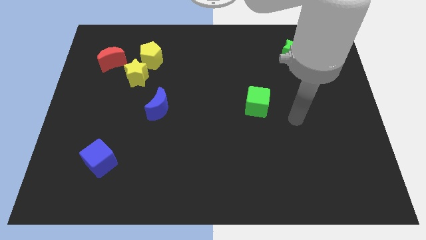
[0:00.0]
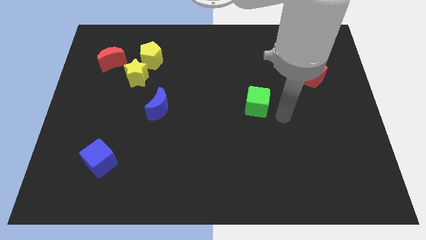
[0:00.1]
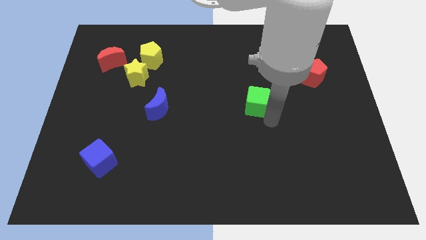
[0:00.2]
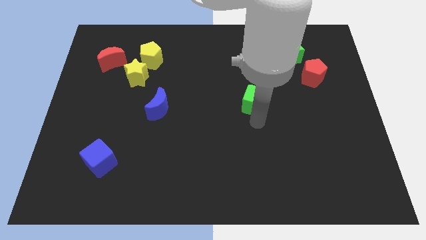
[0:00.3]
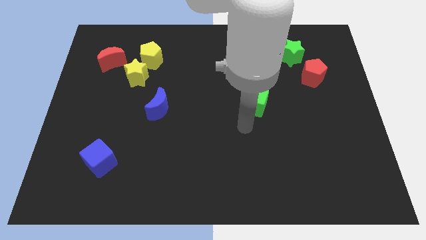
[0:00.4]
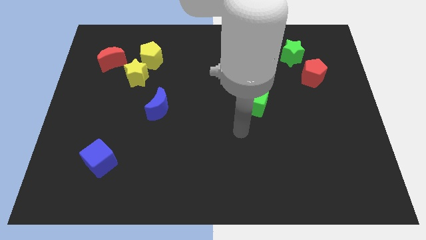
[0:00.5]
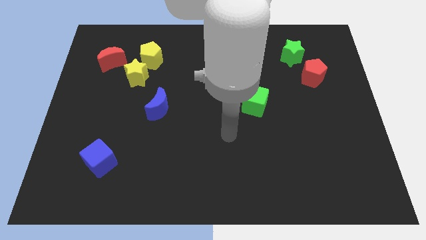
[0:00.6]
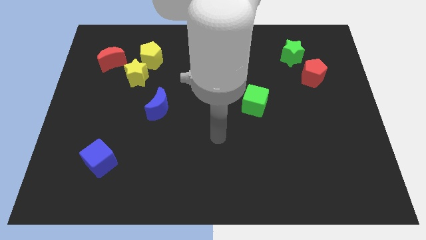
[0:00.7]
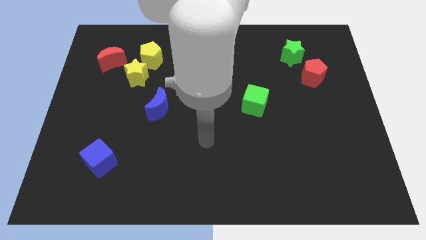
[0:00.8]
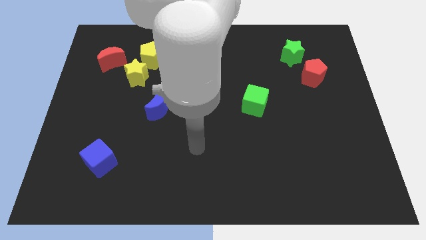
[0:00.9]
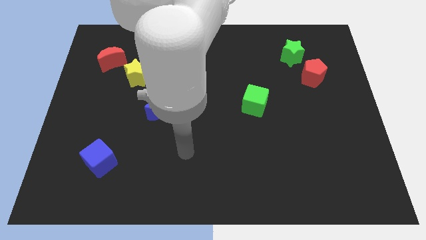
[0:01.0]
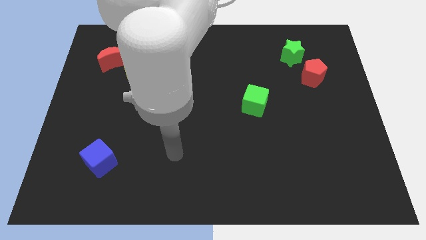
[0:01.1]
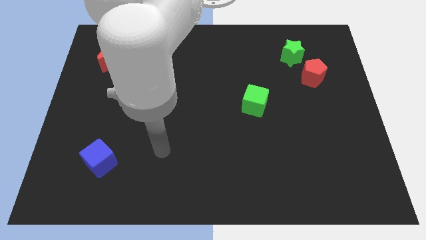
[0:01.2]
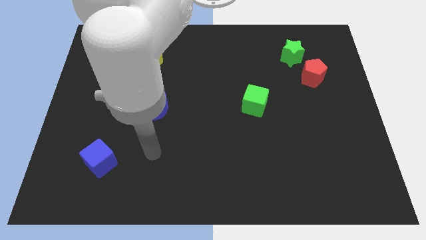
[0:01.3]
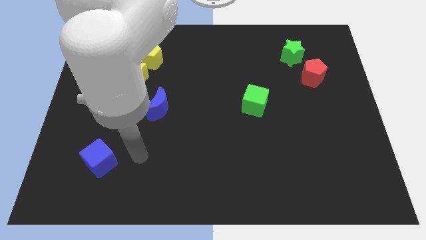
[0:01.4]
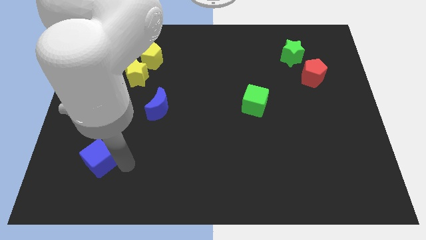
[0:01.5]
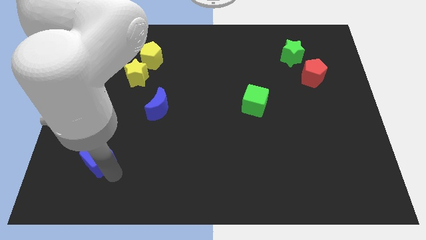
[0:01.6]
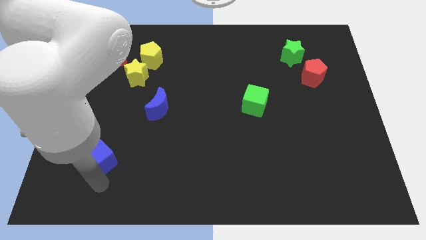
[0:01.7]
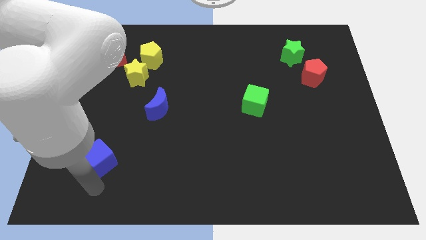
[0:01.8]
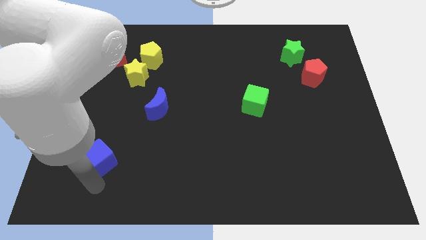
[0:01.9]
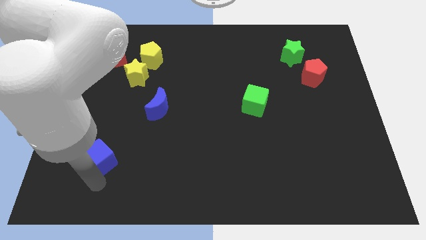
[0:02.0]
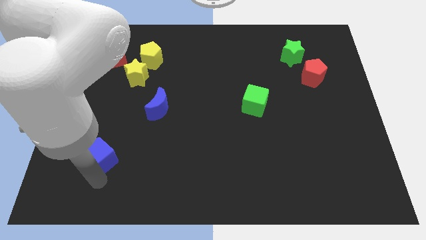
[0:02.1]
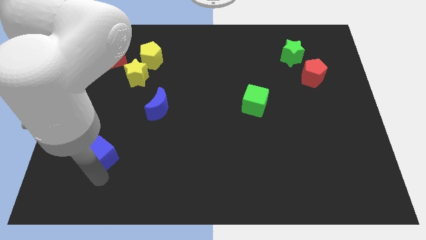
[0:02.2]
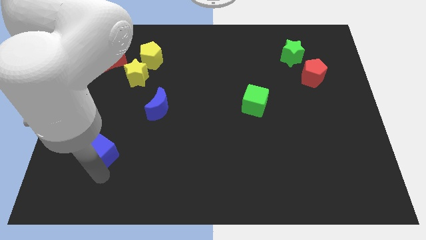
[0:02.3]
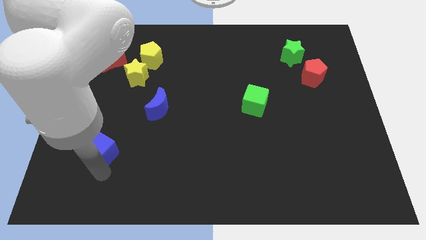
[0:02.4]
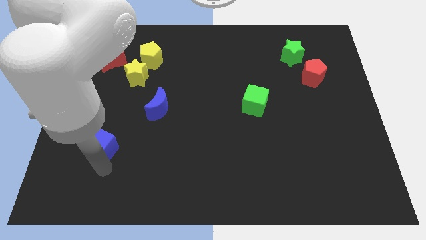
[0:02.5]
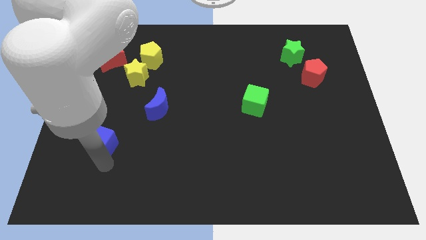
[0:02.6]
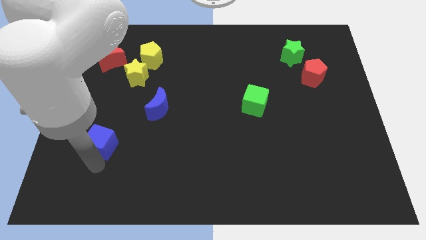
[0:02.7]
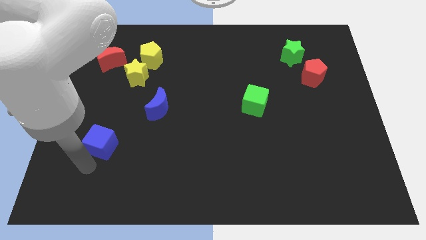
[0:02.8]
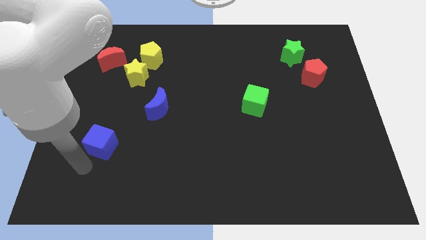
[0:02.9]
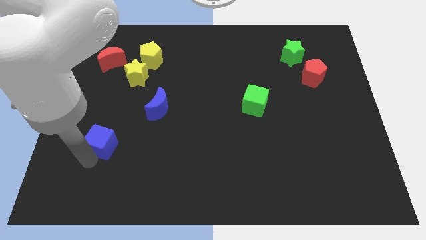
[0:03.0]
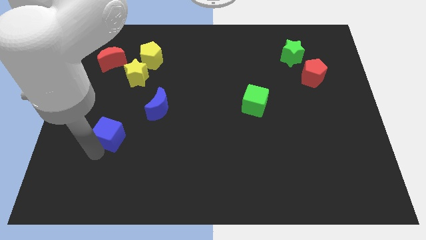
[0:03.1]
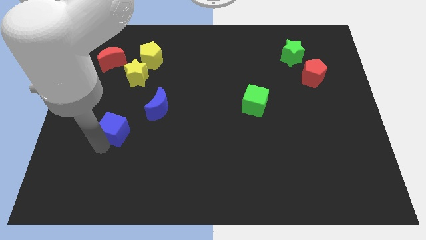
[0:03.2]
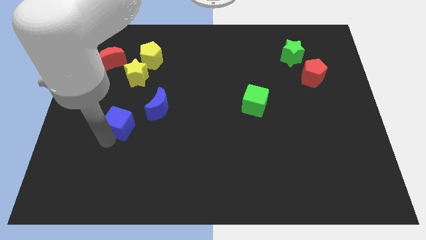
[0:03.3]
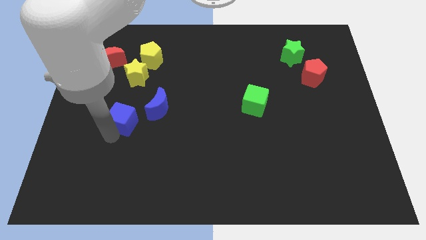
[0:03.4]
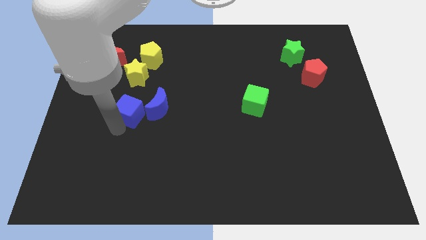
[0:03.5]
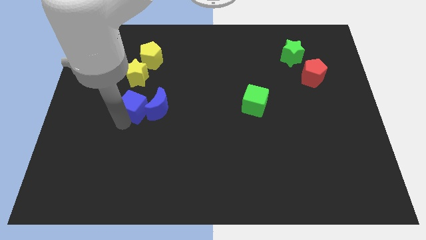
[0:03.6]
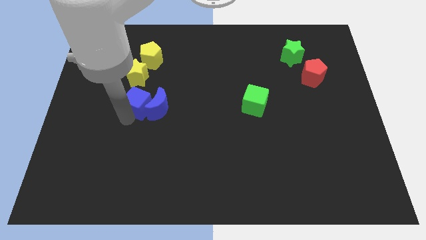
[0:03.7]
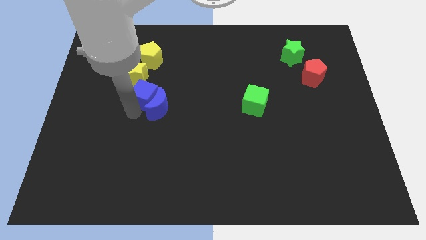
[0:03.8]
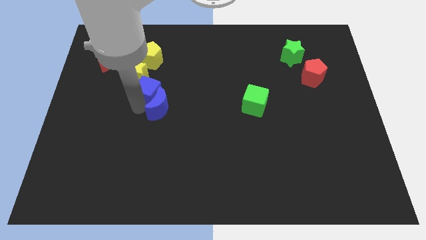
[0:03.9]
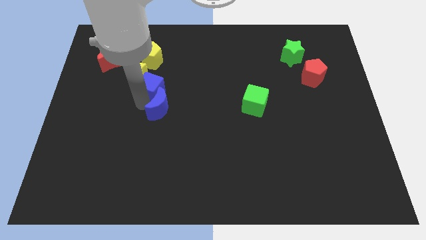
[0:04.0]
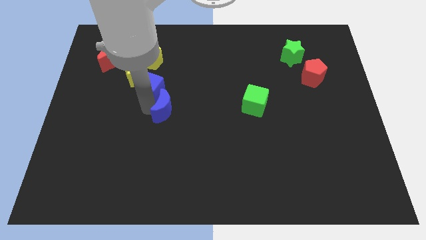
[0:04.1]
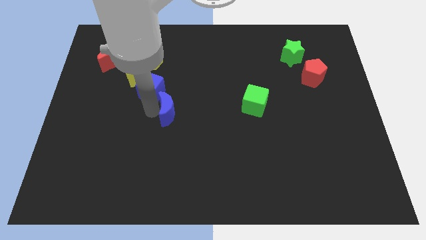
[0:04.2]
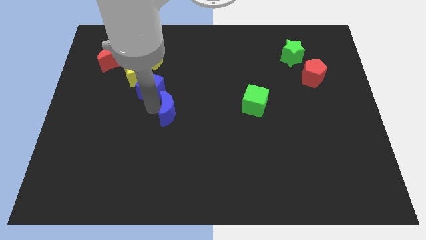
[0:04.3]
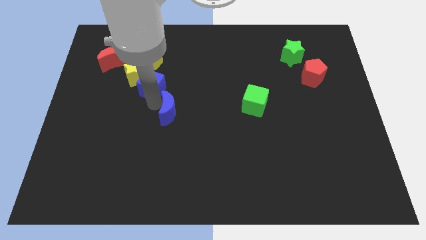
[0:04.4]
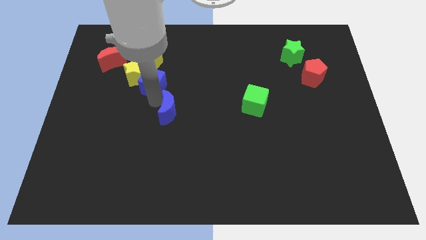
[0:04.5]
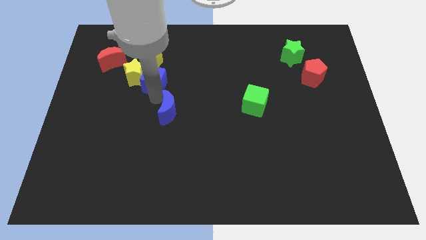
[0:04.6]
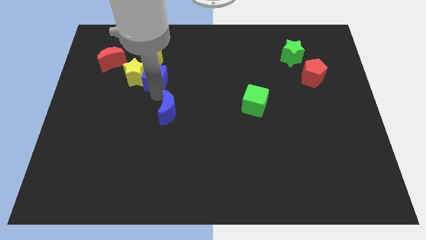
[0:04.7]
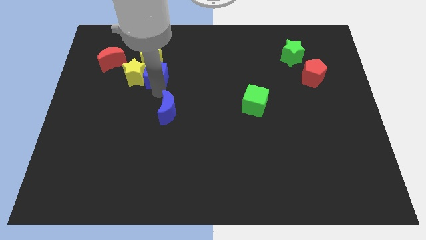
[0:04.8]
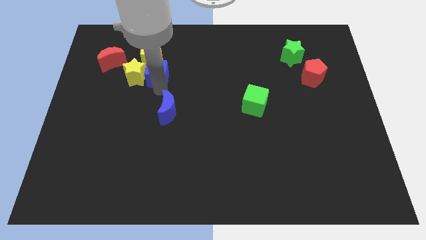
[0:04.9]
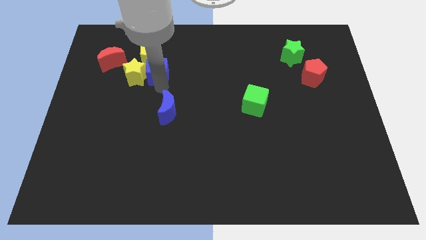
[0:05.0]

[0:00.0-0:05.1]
move the blue cube to the yellow pentagon

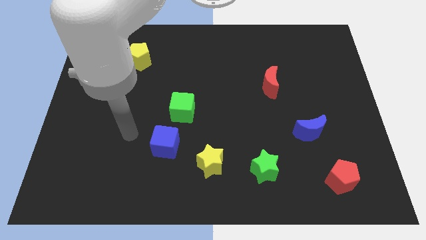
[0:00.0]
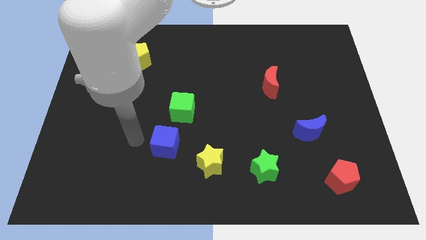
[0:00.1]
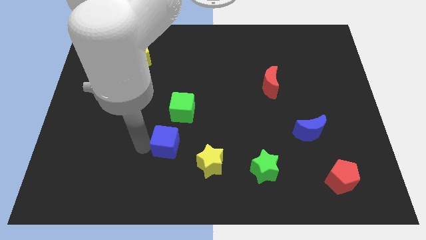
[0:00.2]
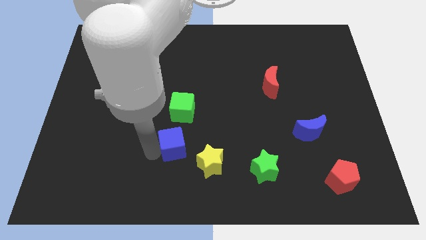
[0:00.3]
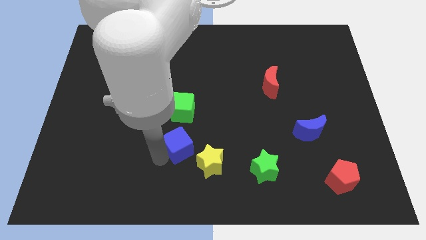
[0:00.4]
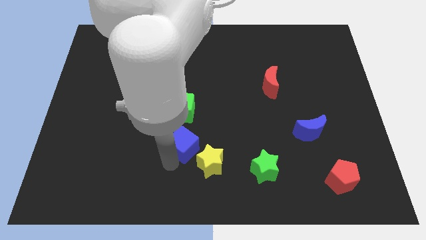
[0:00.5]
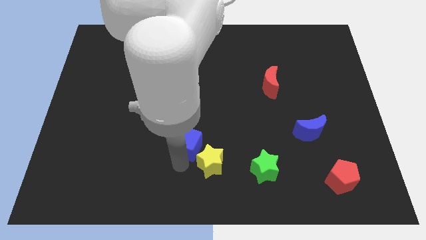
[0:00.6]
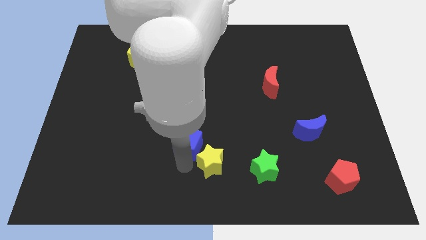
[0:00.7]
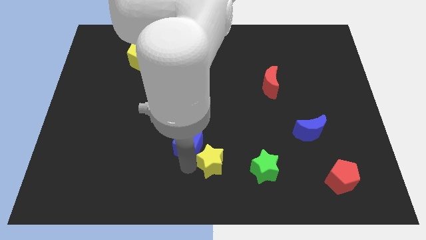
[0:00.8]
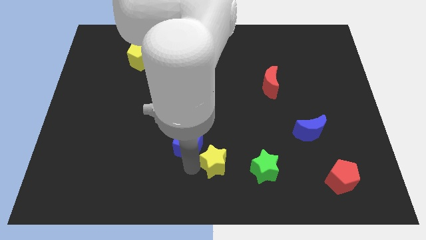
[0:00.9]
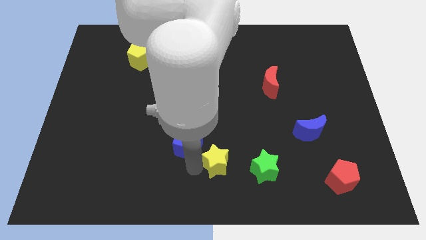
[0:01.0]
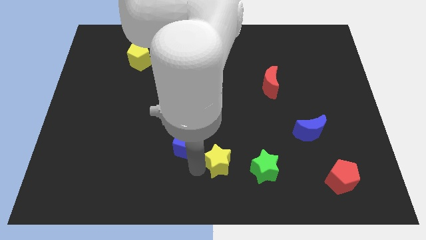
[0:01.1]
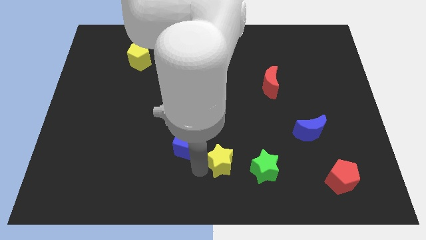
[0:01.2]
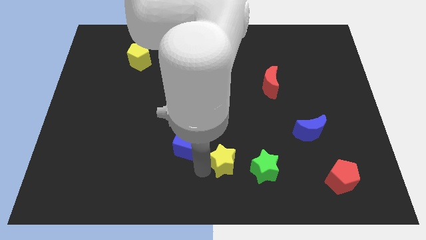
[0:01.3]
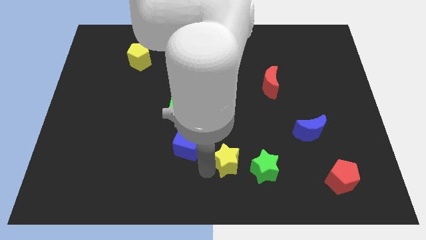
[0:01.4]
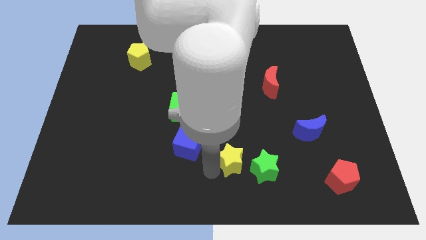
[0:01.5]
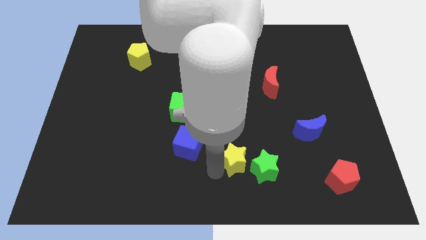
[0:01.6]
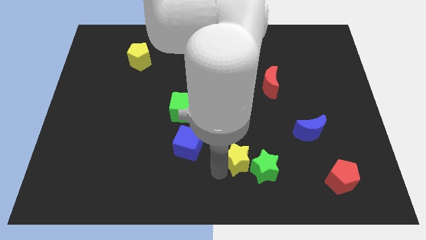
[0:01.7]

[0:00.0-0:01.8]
push the yellow star towards the green star

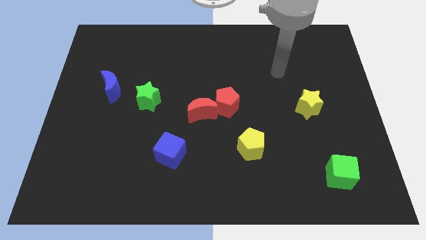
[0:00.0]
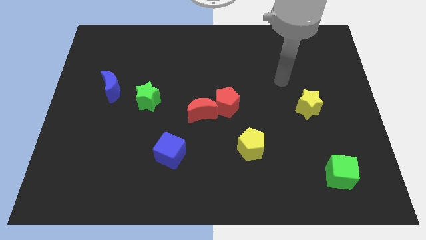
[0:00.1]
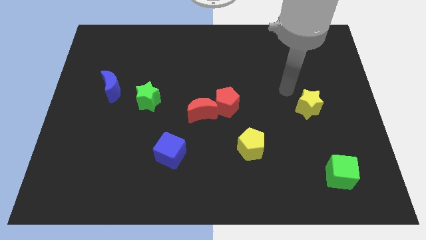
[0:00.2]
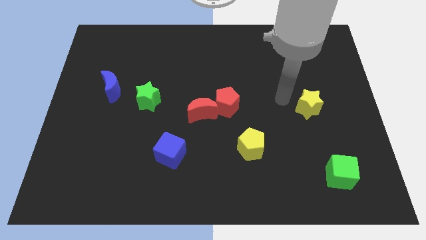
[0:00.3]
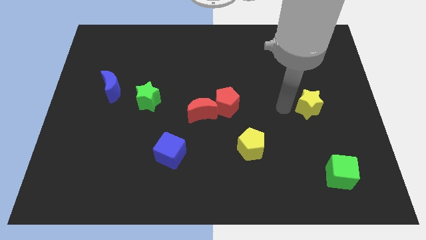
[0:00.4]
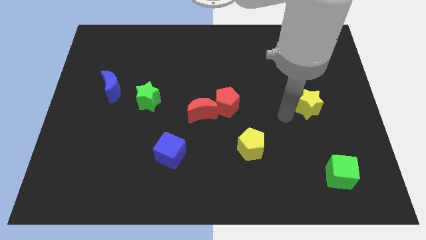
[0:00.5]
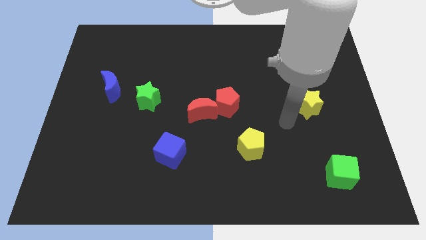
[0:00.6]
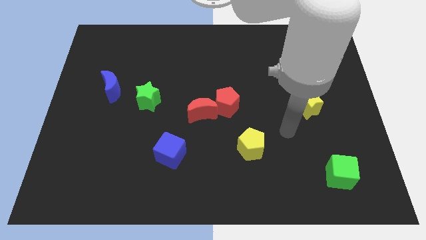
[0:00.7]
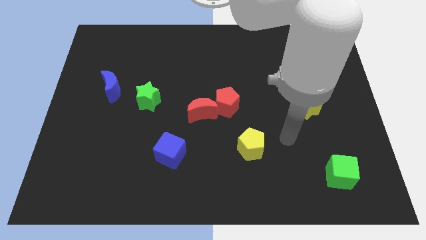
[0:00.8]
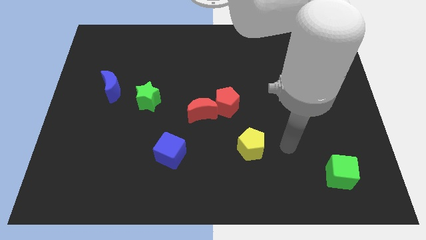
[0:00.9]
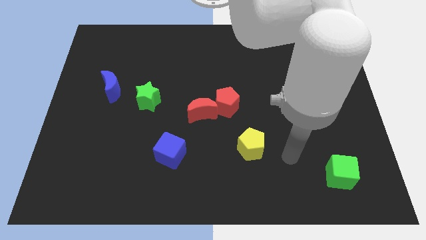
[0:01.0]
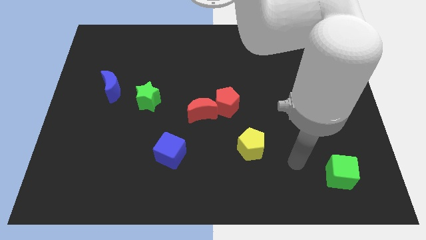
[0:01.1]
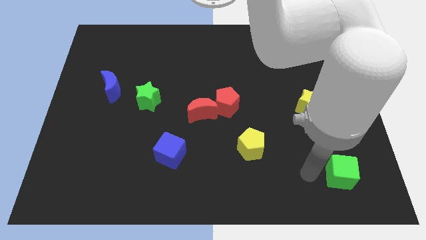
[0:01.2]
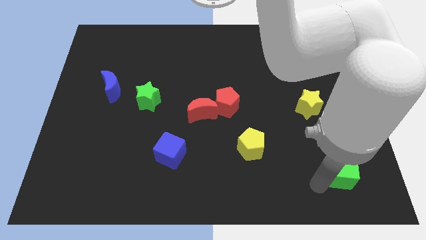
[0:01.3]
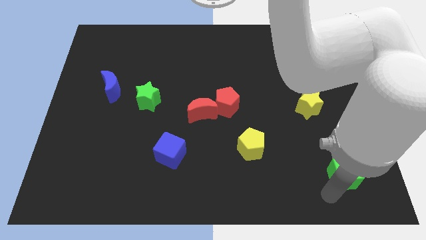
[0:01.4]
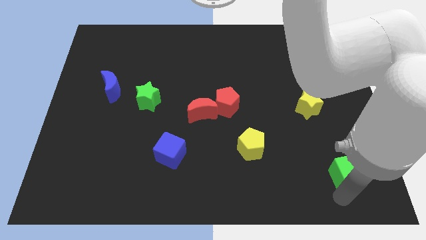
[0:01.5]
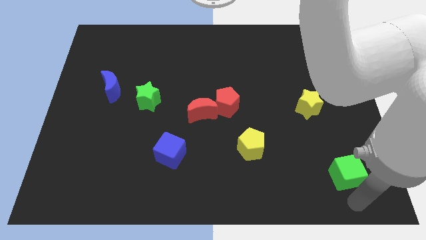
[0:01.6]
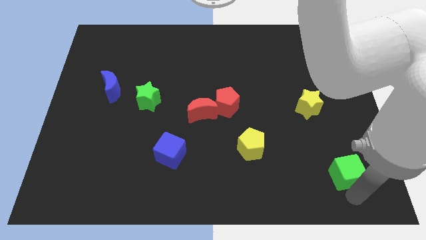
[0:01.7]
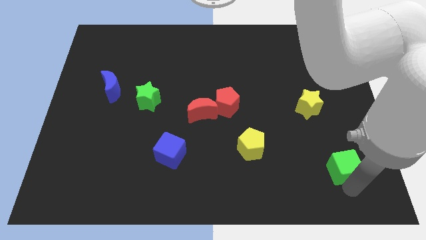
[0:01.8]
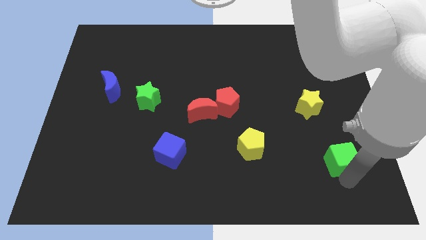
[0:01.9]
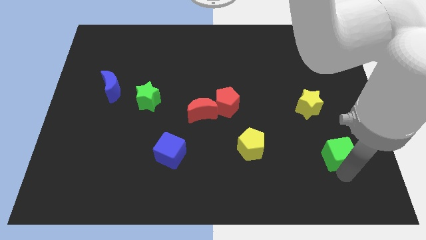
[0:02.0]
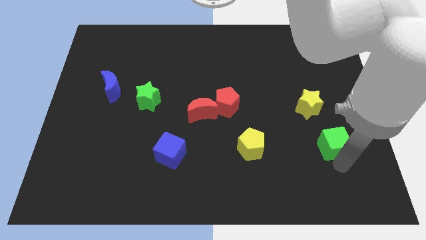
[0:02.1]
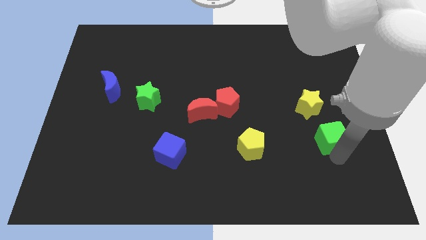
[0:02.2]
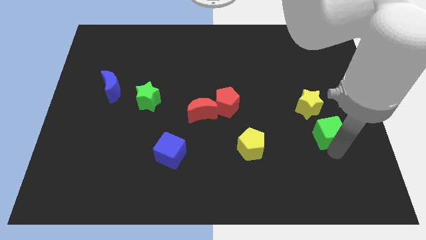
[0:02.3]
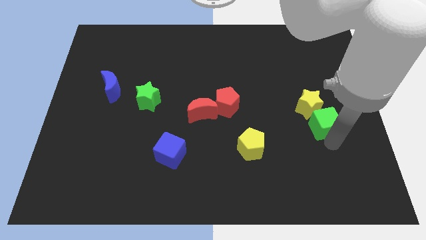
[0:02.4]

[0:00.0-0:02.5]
put the green cube towards the yellow star
